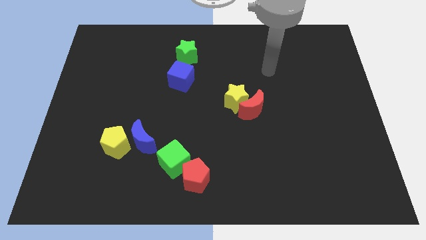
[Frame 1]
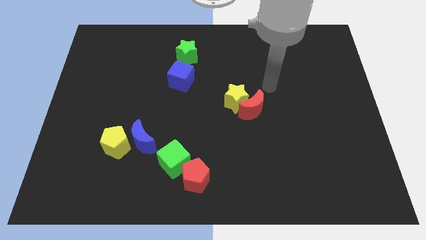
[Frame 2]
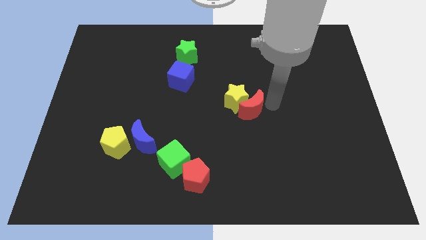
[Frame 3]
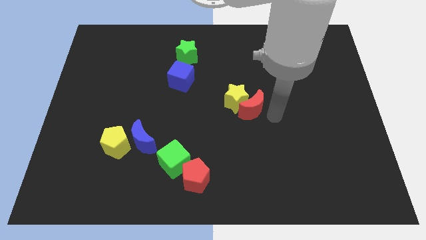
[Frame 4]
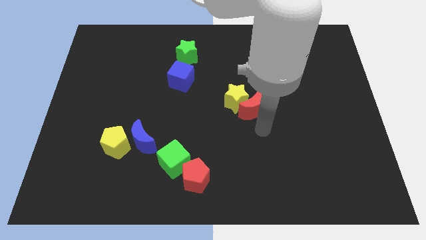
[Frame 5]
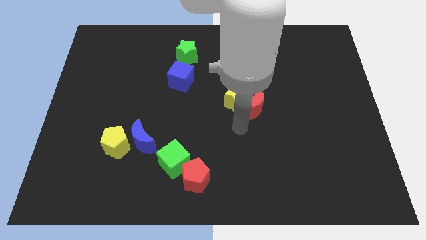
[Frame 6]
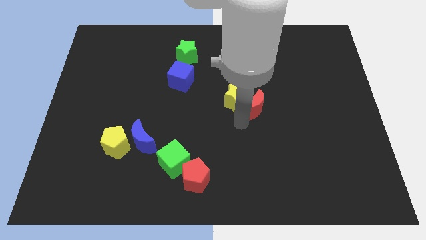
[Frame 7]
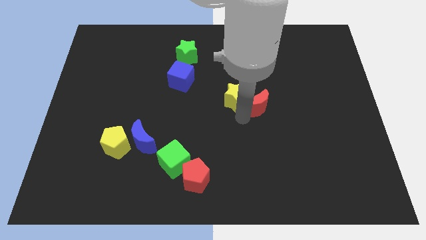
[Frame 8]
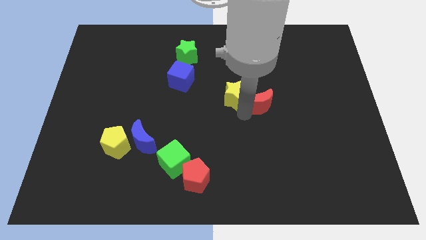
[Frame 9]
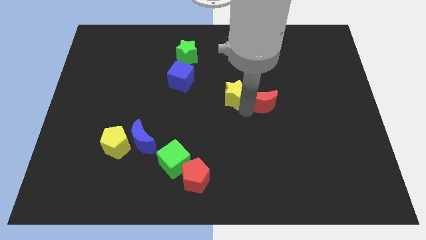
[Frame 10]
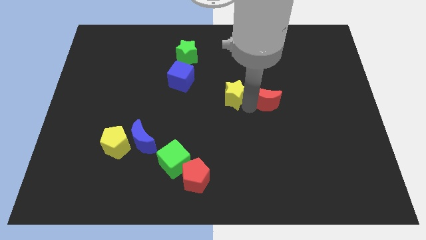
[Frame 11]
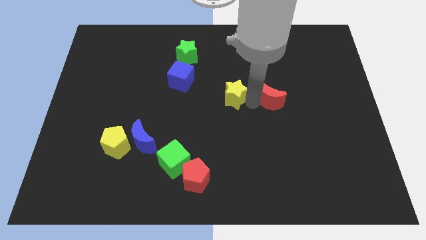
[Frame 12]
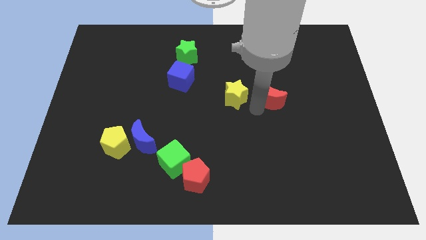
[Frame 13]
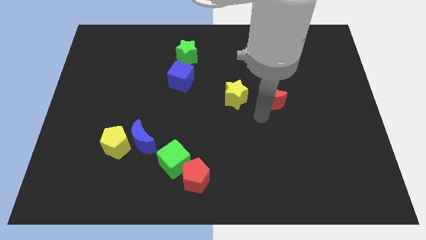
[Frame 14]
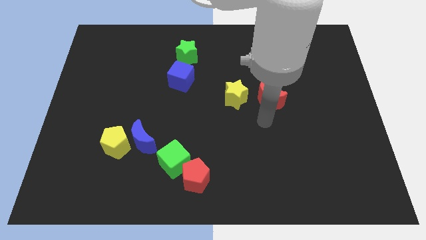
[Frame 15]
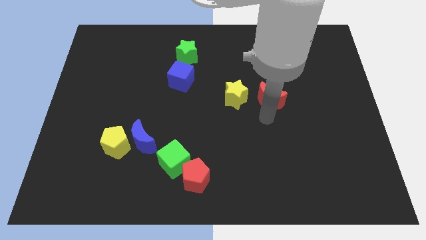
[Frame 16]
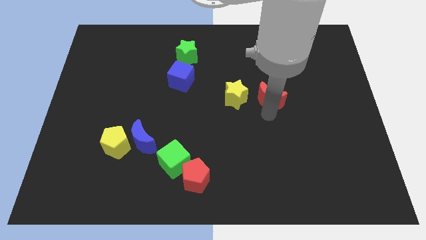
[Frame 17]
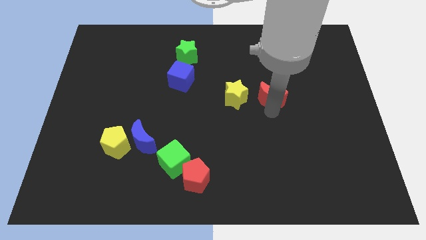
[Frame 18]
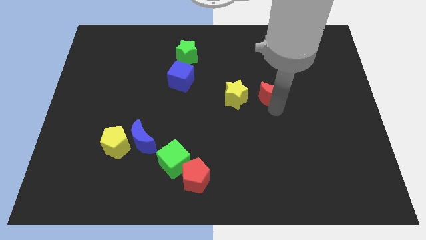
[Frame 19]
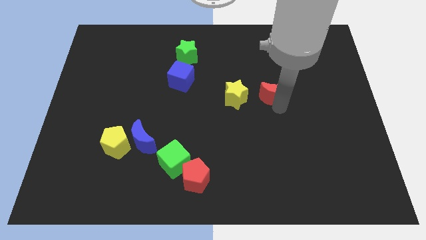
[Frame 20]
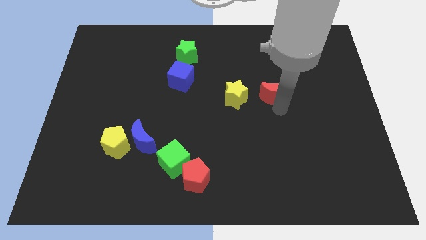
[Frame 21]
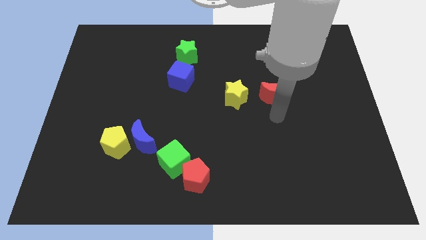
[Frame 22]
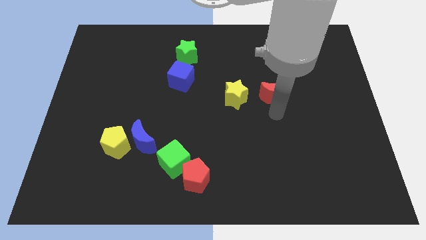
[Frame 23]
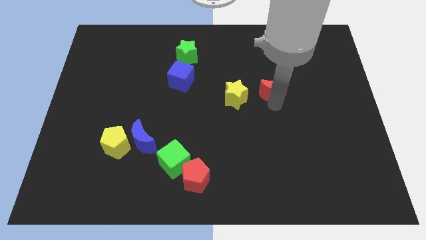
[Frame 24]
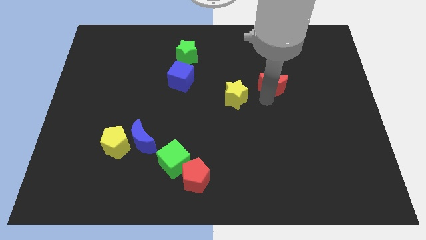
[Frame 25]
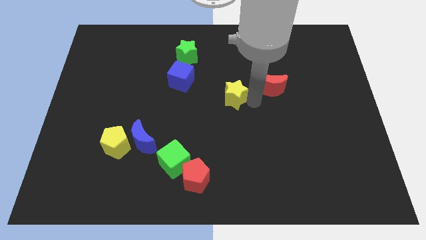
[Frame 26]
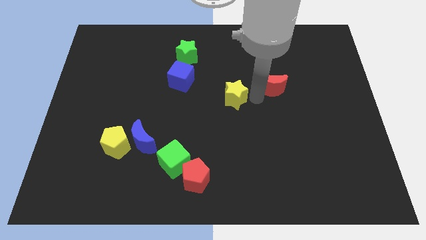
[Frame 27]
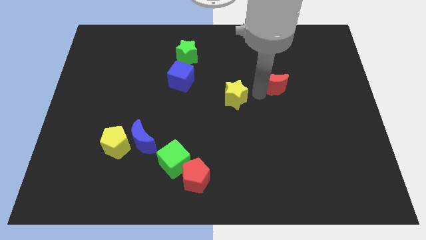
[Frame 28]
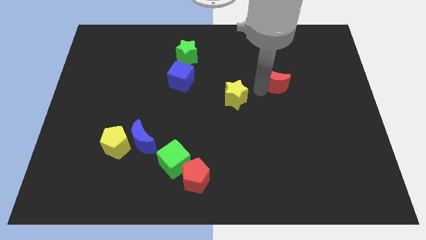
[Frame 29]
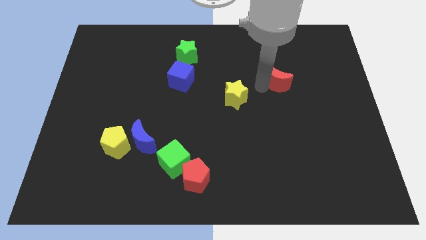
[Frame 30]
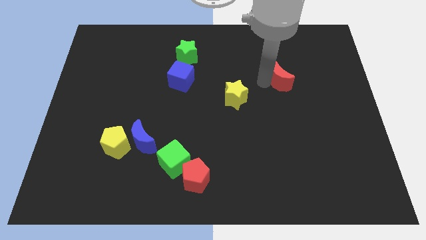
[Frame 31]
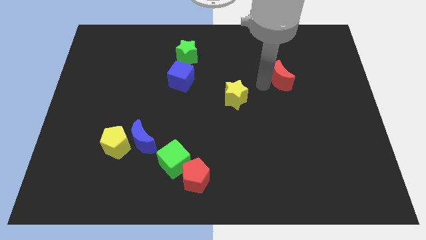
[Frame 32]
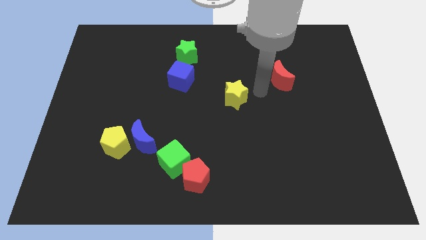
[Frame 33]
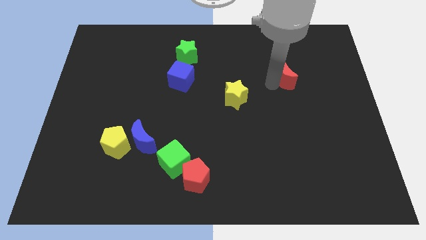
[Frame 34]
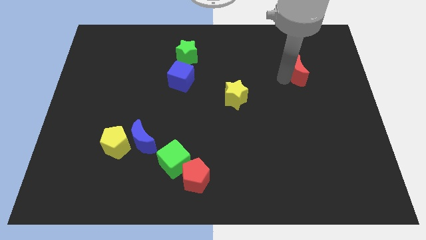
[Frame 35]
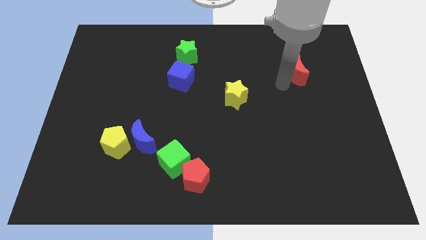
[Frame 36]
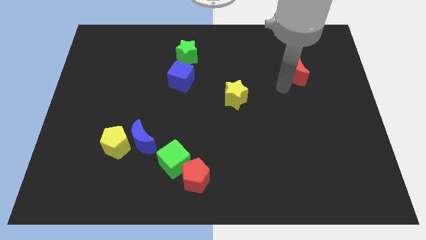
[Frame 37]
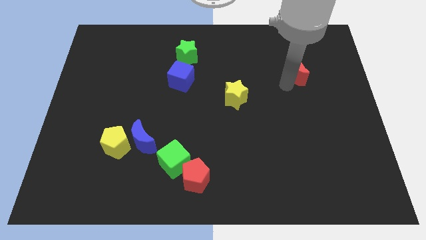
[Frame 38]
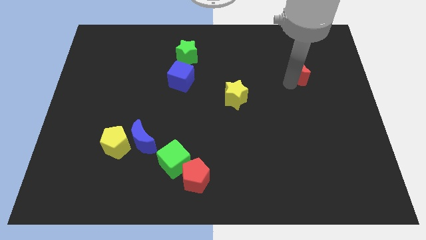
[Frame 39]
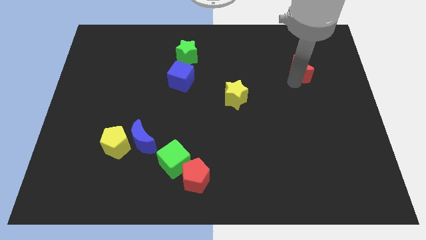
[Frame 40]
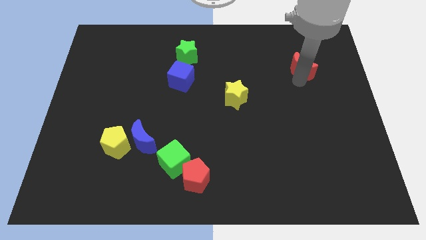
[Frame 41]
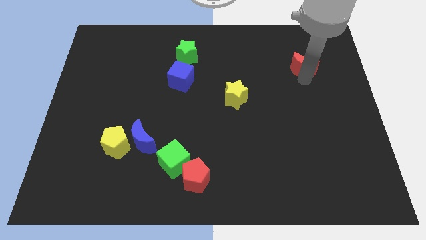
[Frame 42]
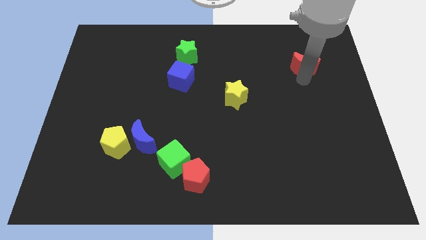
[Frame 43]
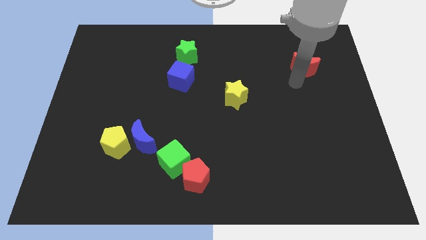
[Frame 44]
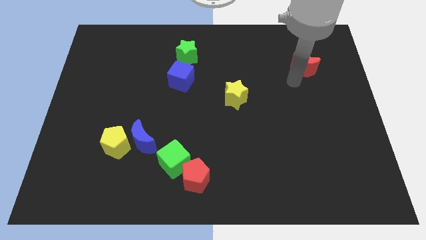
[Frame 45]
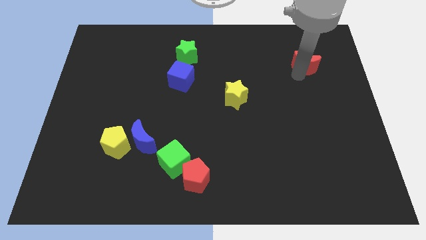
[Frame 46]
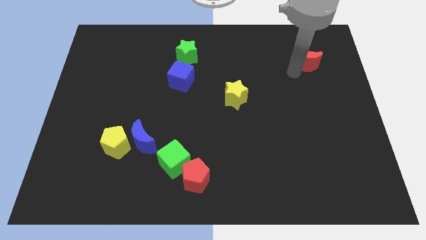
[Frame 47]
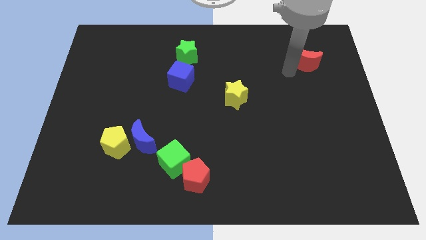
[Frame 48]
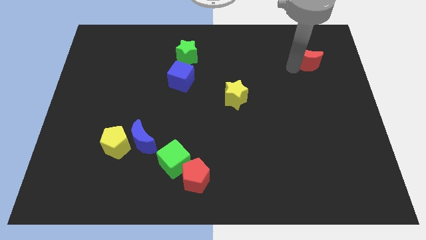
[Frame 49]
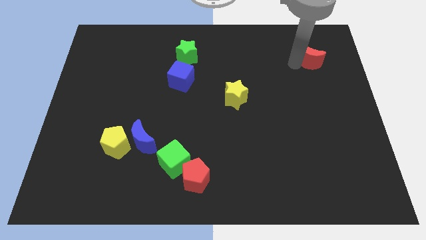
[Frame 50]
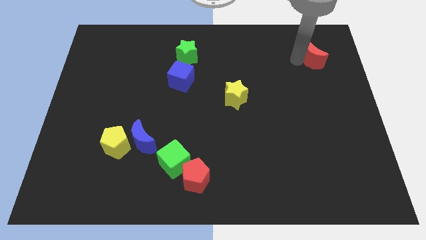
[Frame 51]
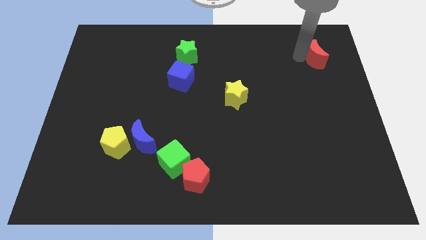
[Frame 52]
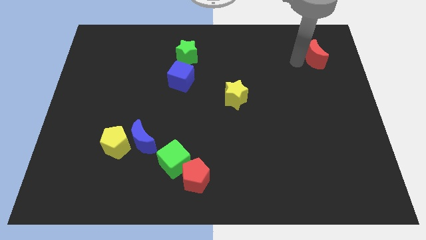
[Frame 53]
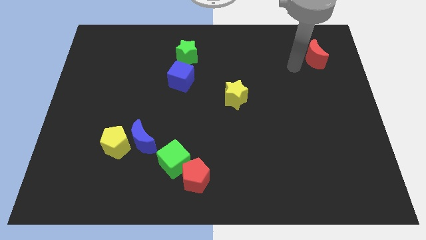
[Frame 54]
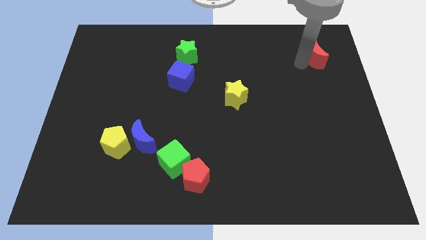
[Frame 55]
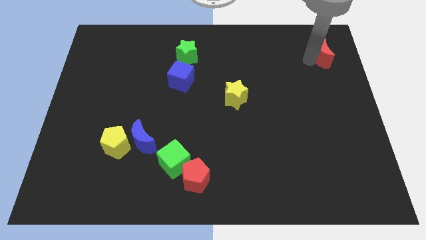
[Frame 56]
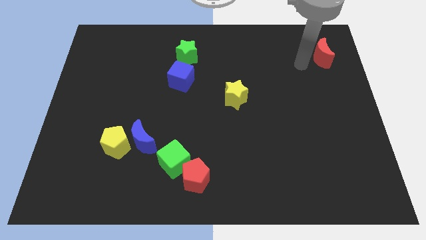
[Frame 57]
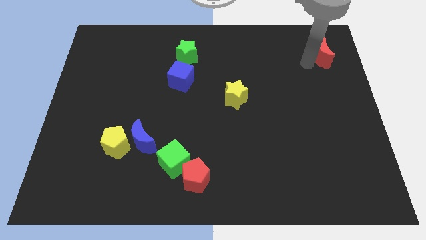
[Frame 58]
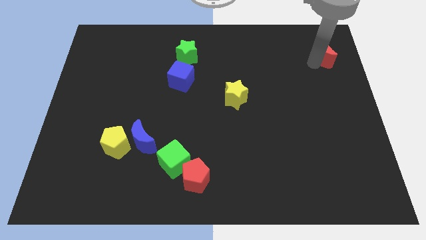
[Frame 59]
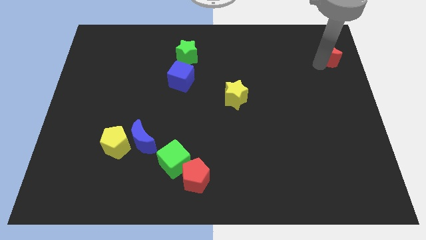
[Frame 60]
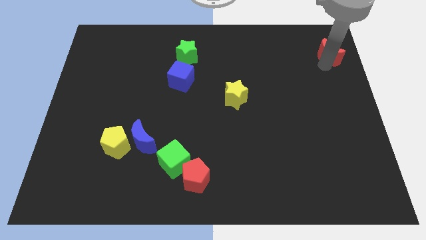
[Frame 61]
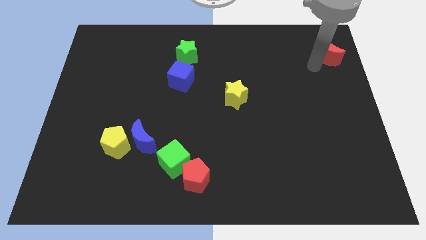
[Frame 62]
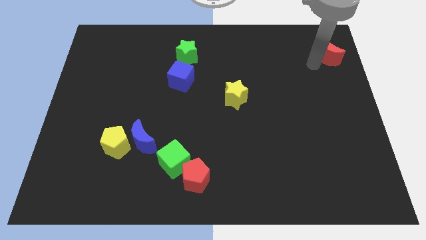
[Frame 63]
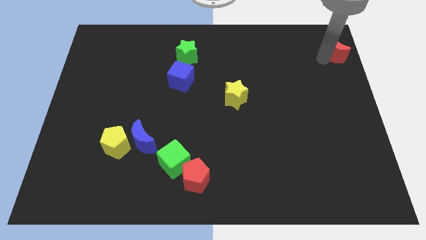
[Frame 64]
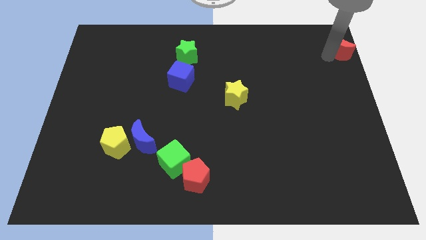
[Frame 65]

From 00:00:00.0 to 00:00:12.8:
move the red moon to the upper right corner

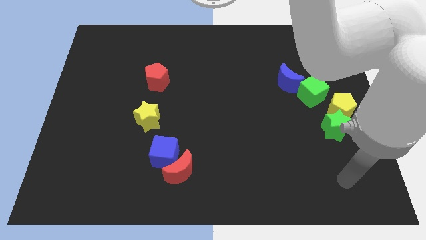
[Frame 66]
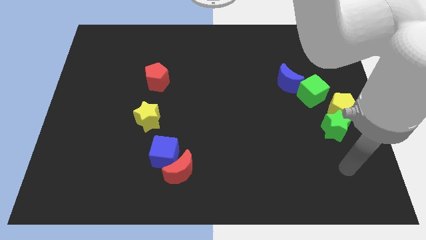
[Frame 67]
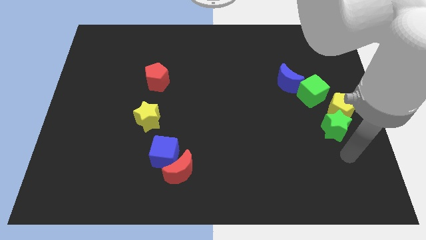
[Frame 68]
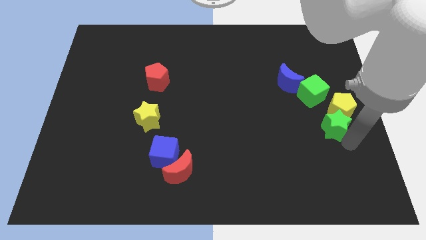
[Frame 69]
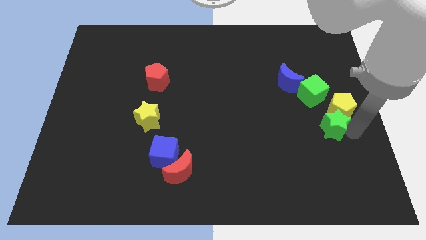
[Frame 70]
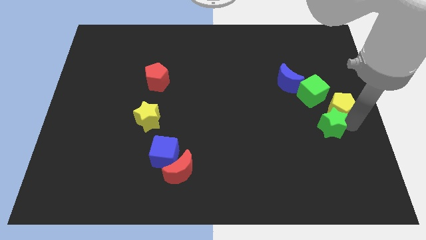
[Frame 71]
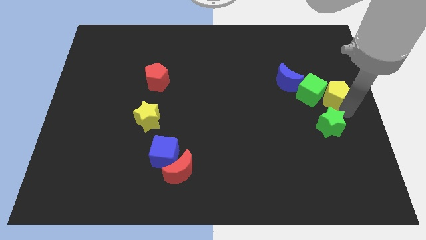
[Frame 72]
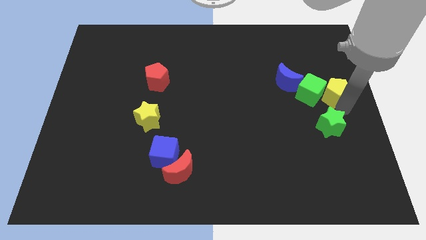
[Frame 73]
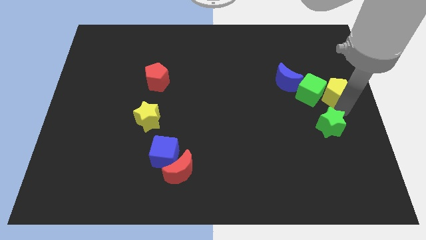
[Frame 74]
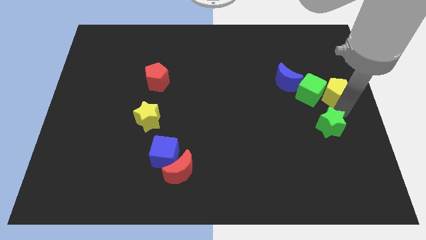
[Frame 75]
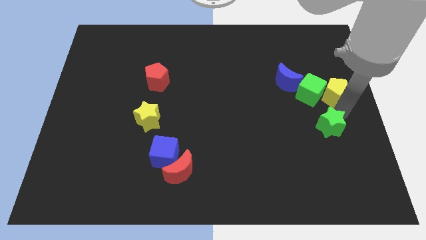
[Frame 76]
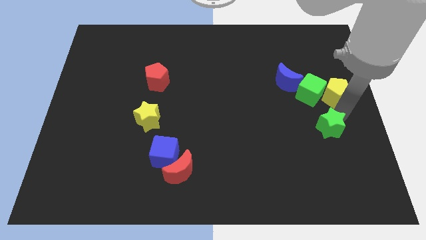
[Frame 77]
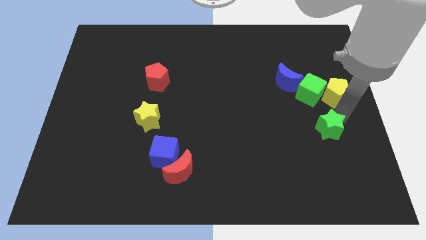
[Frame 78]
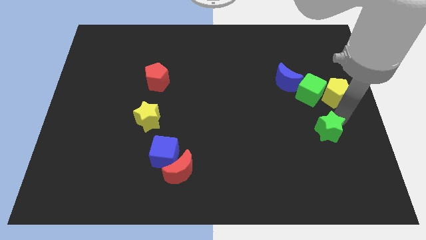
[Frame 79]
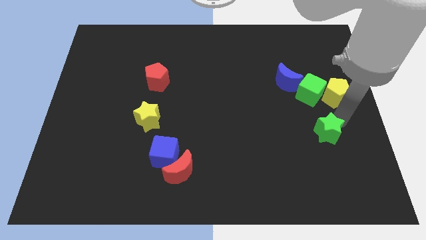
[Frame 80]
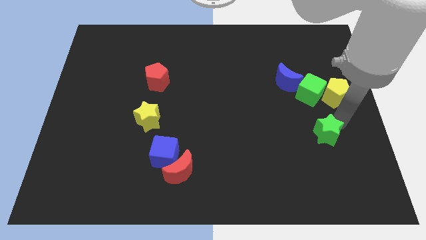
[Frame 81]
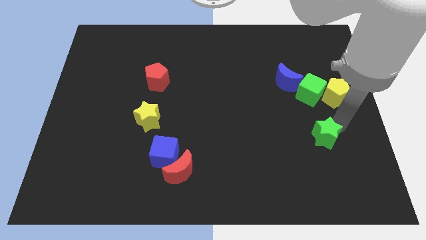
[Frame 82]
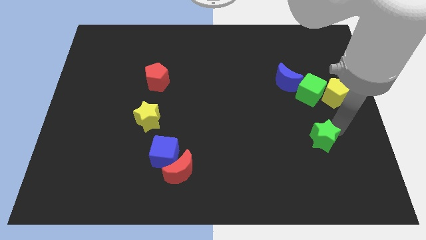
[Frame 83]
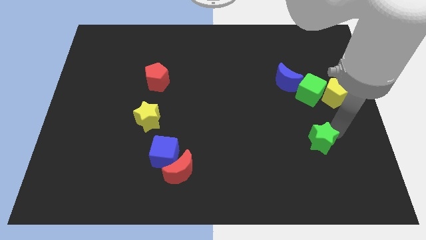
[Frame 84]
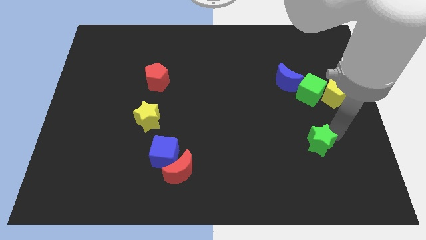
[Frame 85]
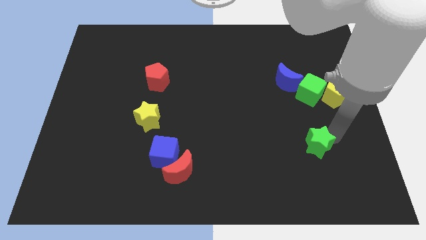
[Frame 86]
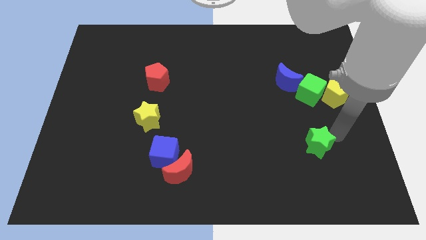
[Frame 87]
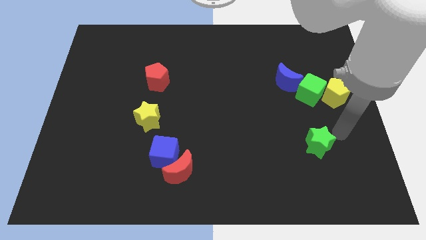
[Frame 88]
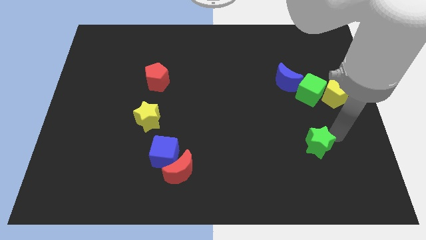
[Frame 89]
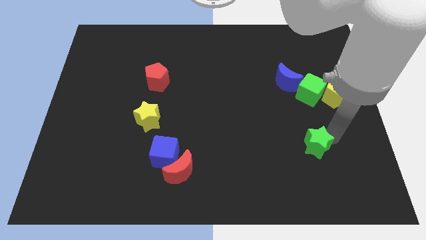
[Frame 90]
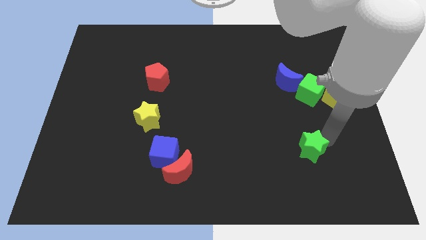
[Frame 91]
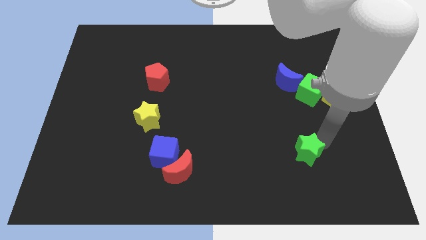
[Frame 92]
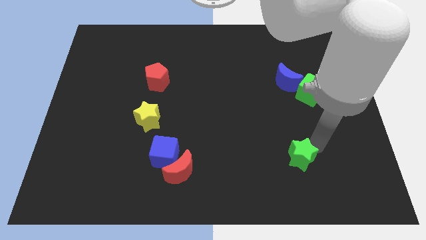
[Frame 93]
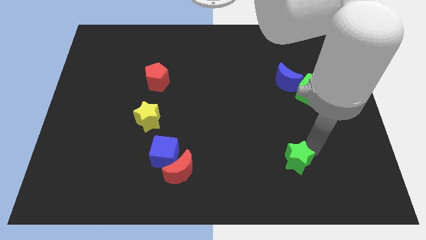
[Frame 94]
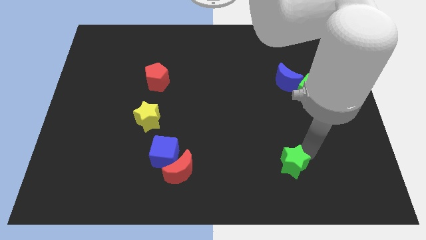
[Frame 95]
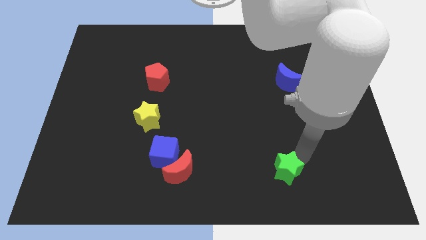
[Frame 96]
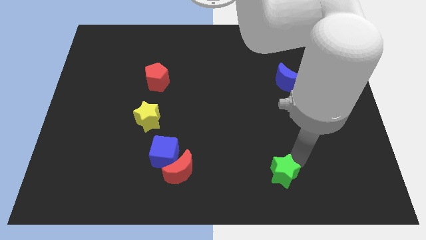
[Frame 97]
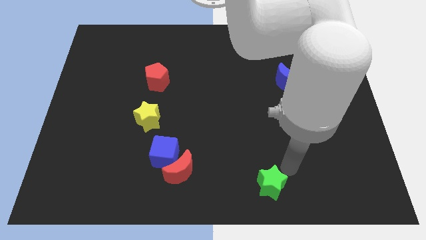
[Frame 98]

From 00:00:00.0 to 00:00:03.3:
slide the green star to the bottom
